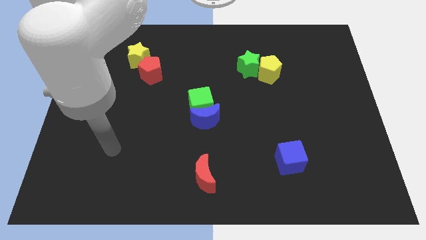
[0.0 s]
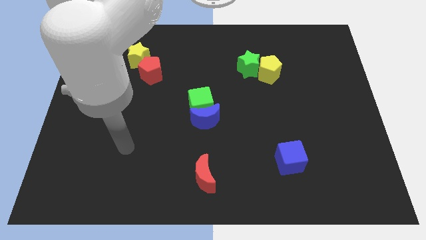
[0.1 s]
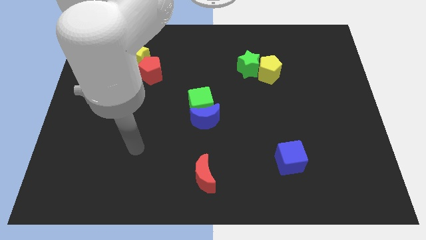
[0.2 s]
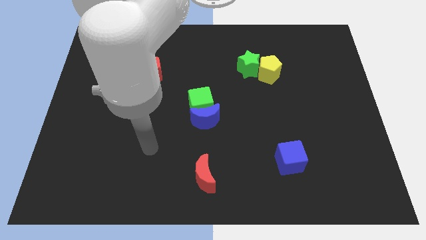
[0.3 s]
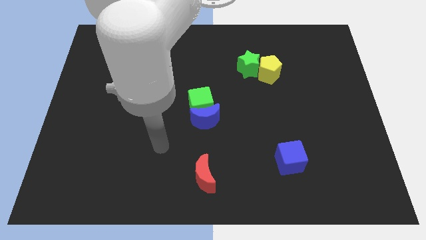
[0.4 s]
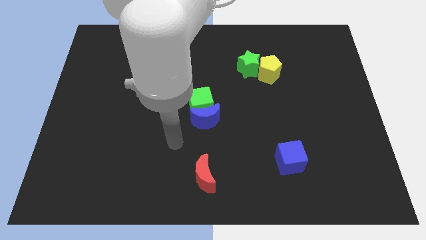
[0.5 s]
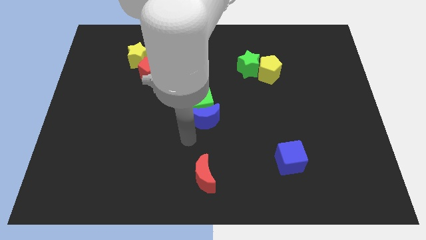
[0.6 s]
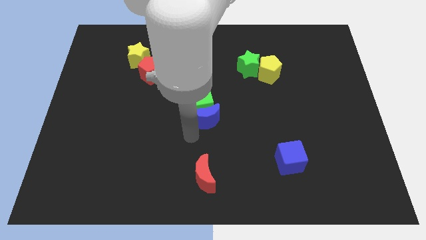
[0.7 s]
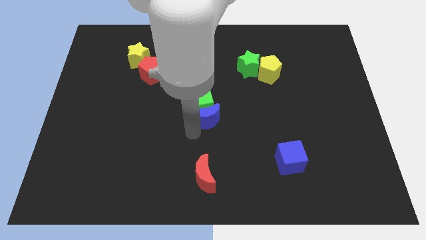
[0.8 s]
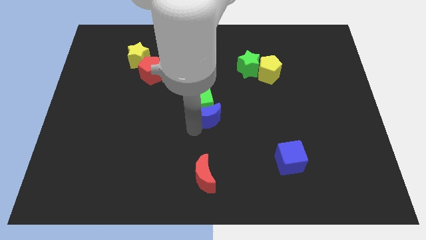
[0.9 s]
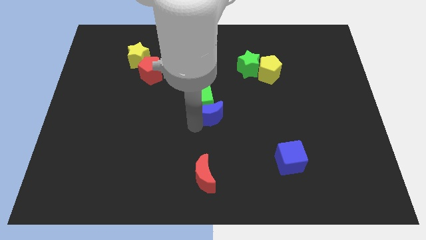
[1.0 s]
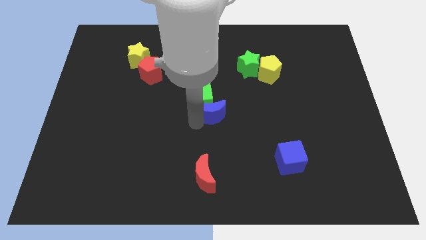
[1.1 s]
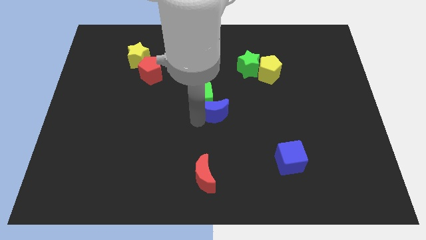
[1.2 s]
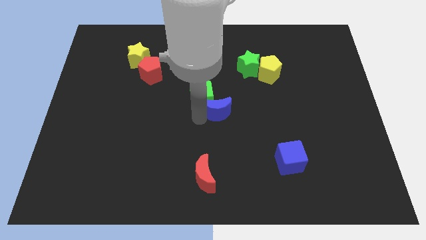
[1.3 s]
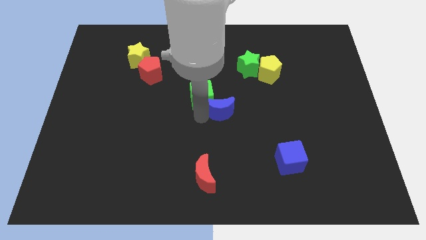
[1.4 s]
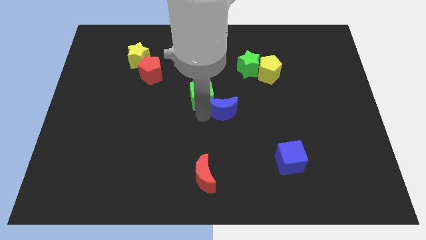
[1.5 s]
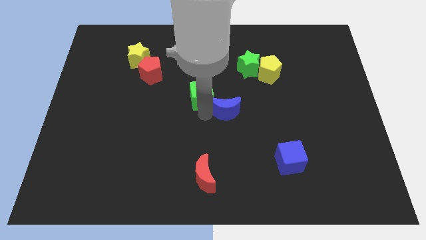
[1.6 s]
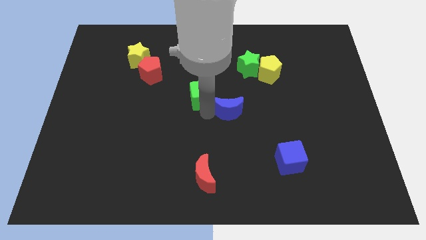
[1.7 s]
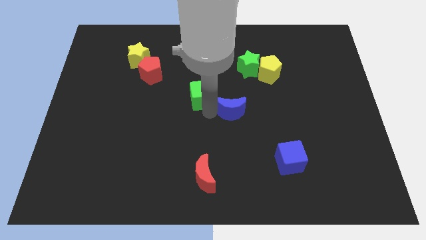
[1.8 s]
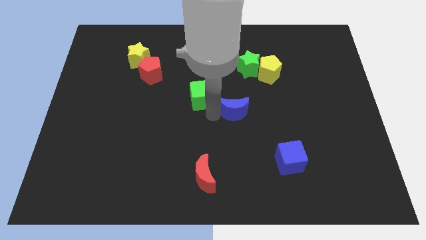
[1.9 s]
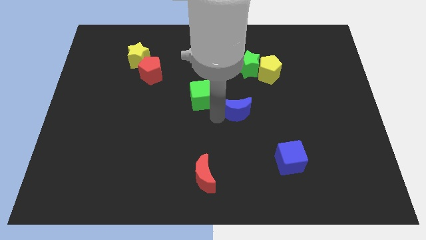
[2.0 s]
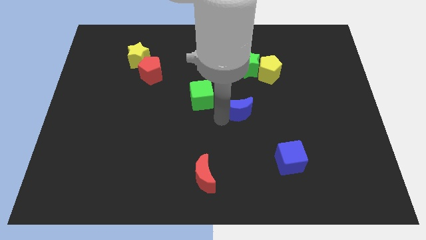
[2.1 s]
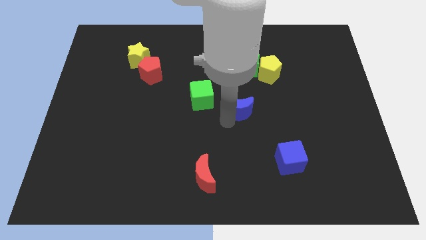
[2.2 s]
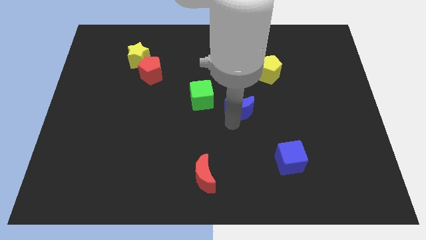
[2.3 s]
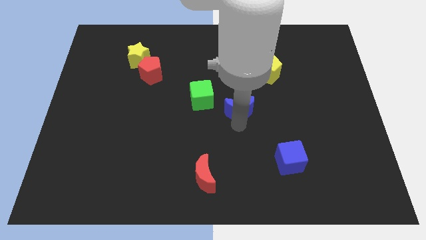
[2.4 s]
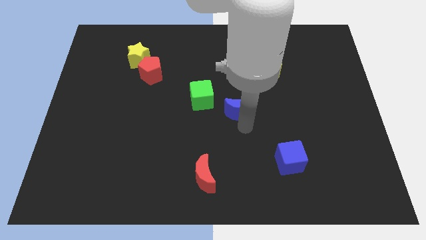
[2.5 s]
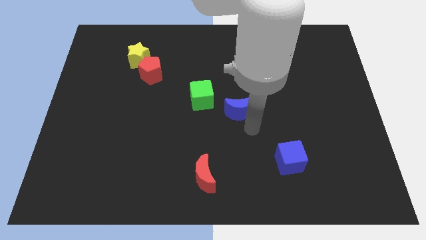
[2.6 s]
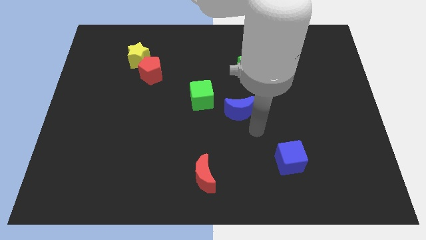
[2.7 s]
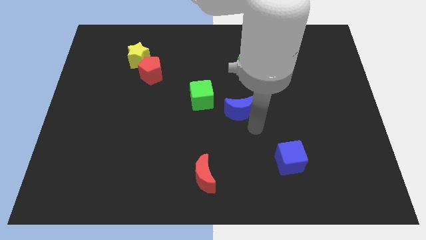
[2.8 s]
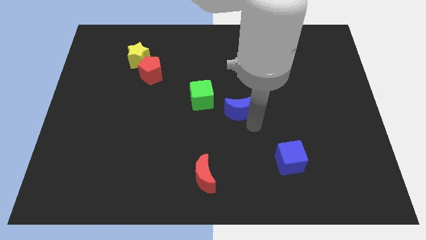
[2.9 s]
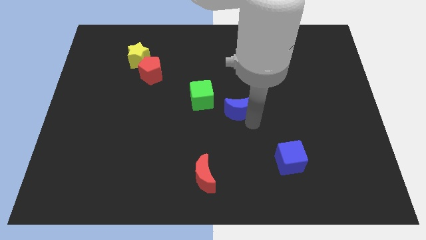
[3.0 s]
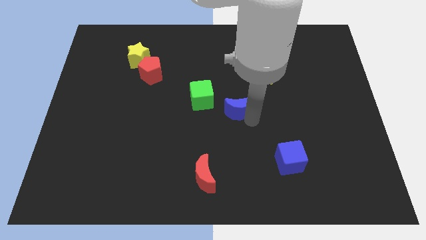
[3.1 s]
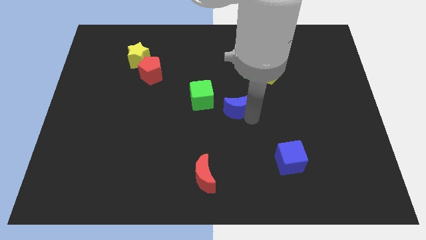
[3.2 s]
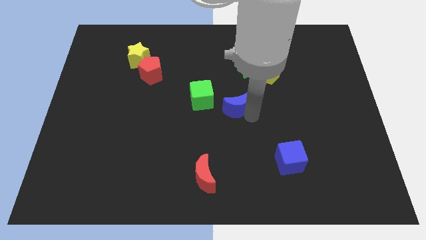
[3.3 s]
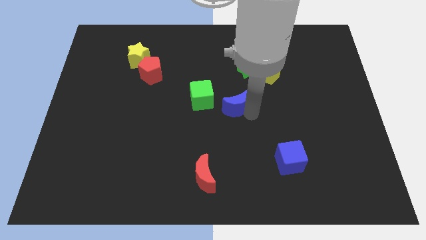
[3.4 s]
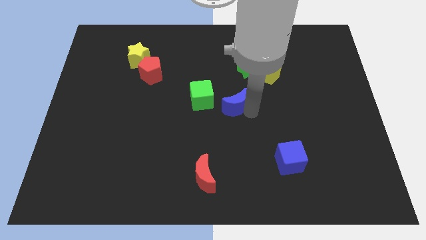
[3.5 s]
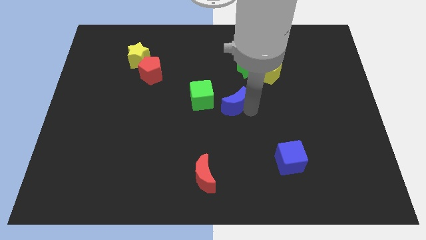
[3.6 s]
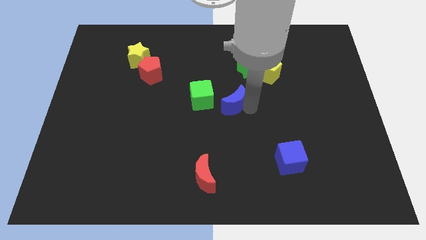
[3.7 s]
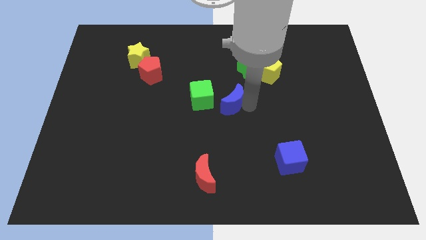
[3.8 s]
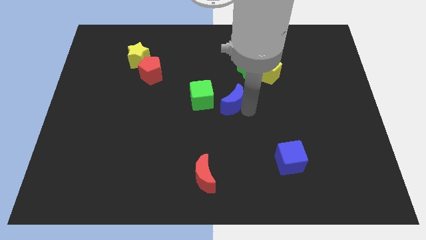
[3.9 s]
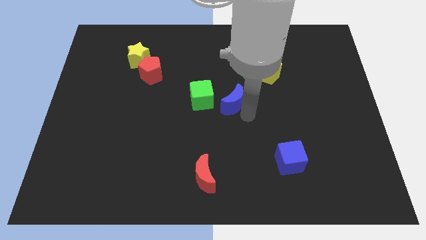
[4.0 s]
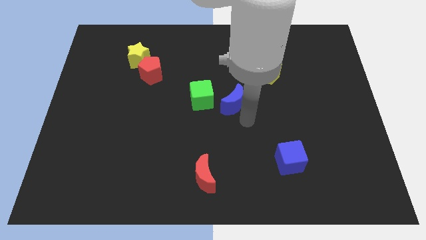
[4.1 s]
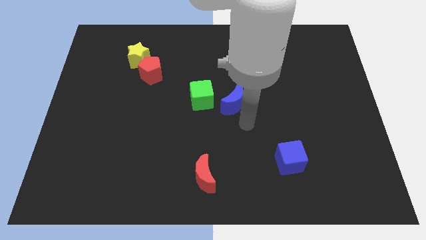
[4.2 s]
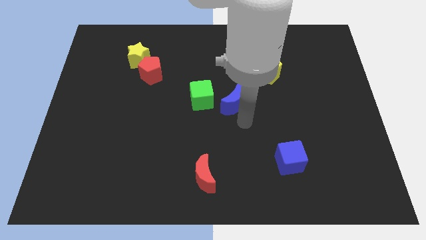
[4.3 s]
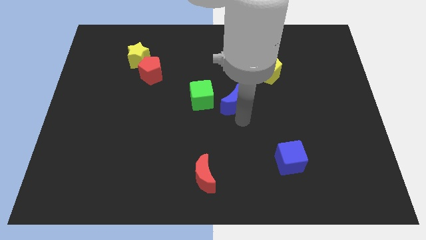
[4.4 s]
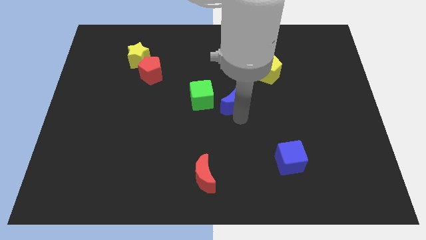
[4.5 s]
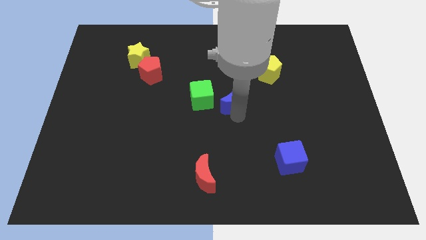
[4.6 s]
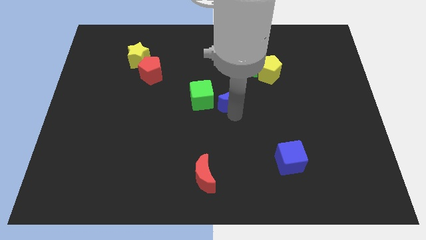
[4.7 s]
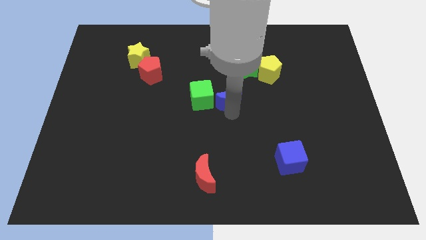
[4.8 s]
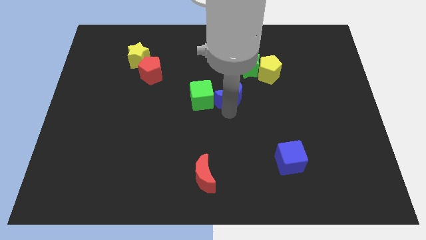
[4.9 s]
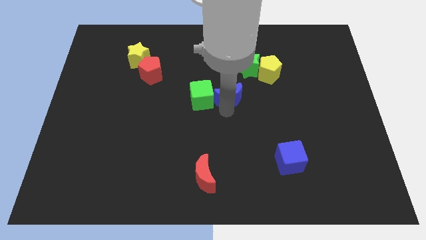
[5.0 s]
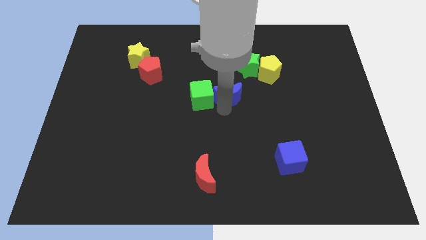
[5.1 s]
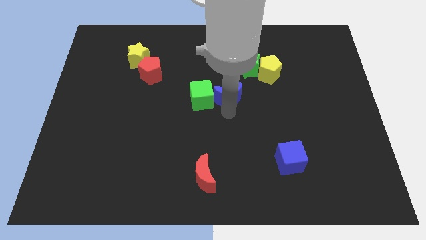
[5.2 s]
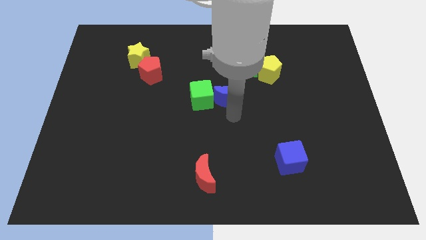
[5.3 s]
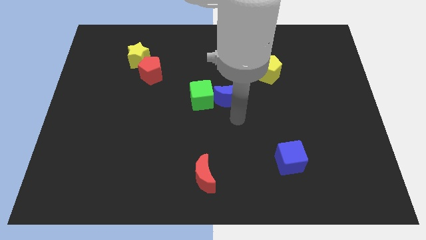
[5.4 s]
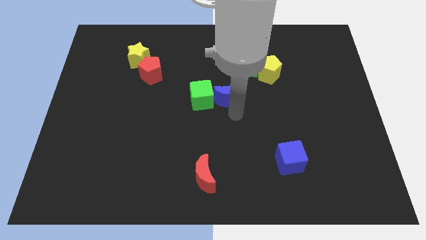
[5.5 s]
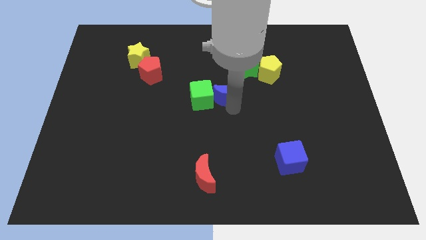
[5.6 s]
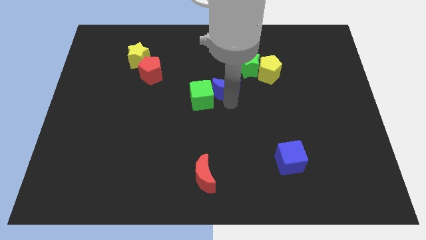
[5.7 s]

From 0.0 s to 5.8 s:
slightly push the blue moon upwards

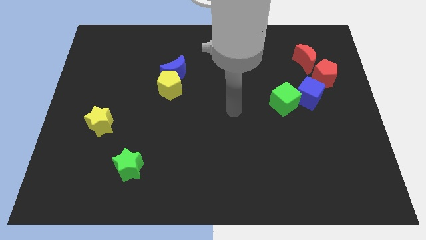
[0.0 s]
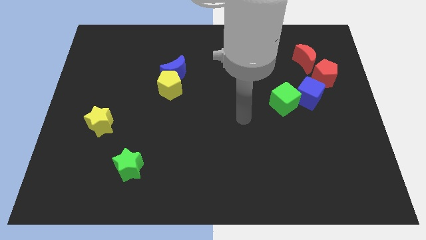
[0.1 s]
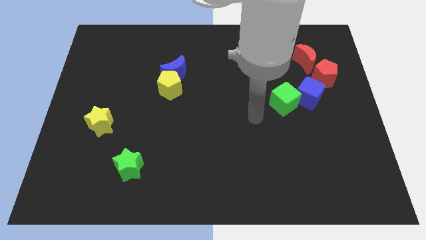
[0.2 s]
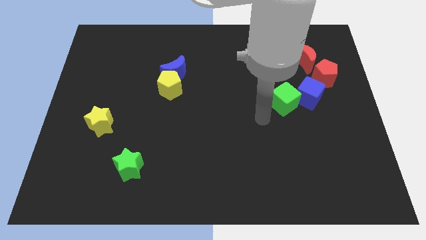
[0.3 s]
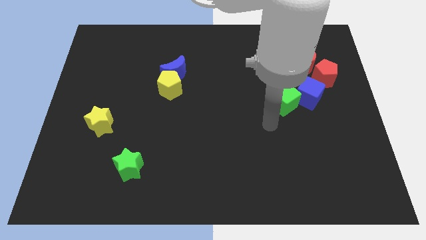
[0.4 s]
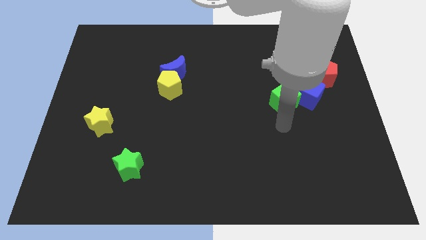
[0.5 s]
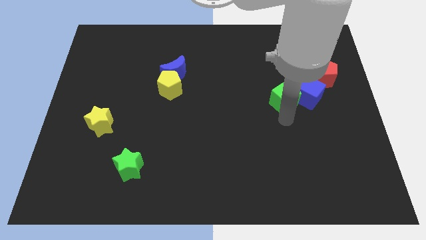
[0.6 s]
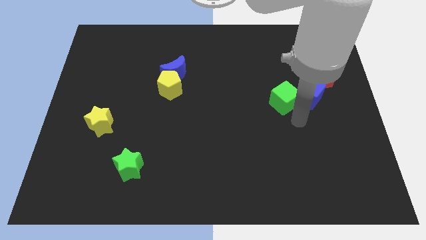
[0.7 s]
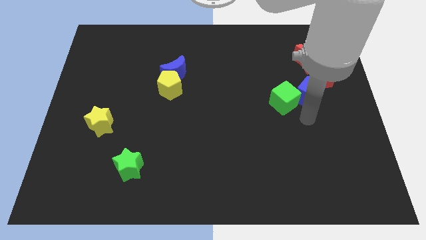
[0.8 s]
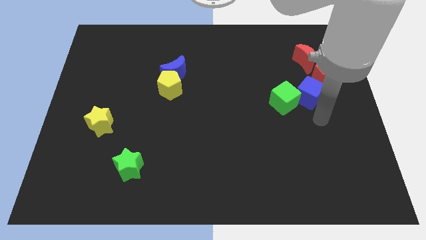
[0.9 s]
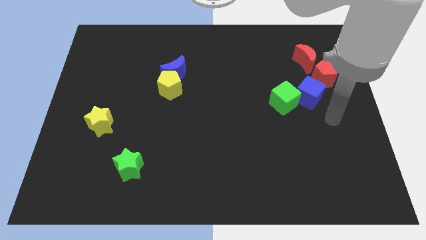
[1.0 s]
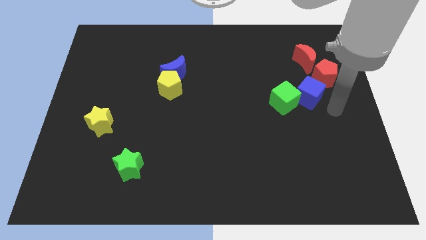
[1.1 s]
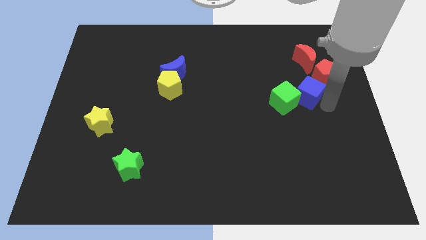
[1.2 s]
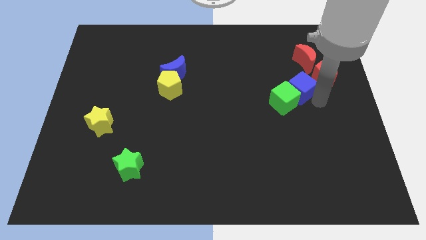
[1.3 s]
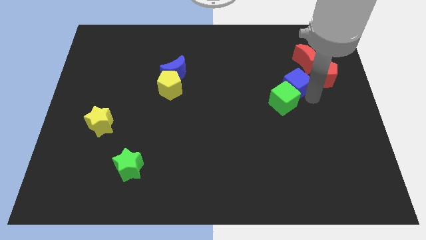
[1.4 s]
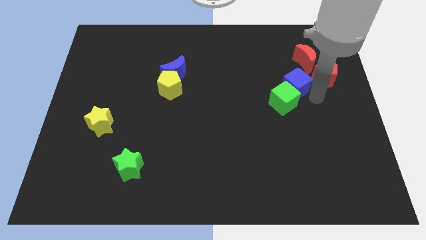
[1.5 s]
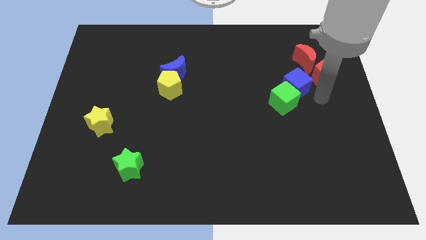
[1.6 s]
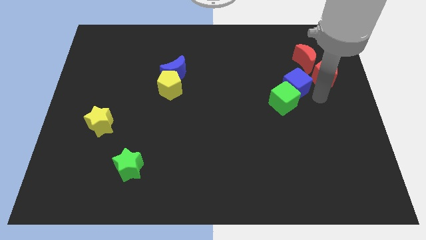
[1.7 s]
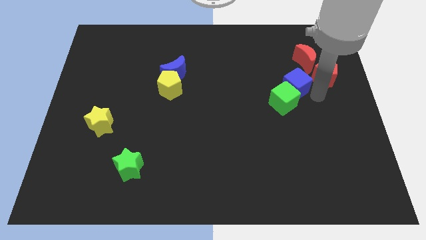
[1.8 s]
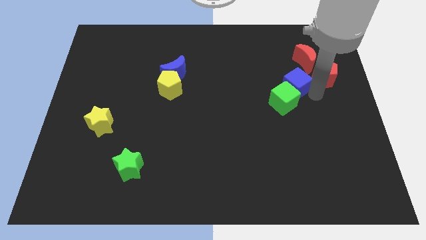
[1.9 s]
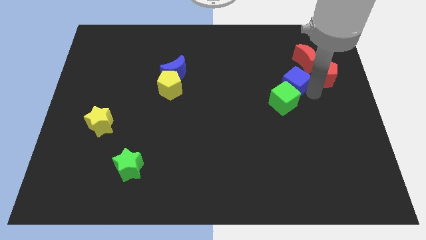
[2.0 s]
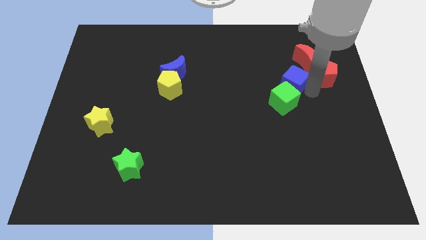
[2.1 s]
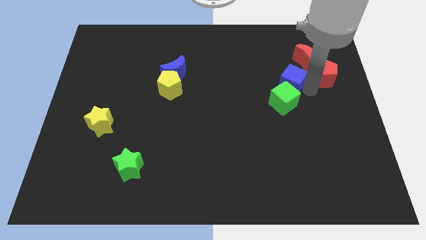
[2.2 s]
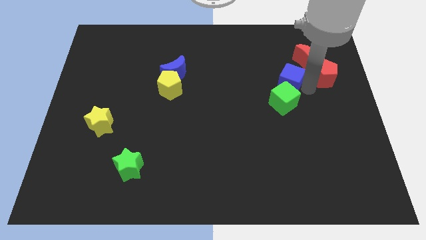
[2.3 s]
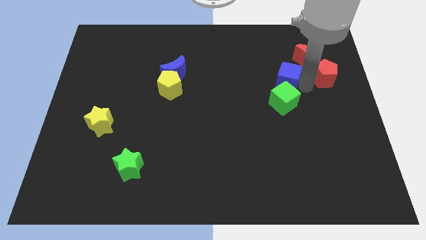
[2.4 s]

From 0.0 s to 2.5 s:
slightly move the blue cube diagonally upwards and to the left
